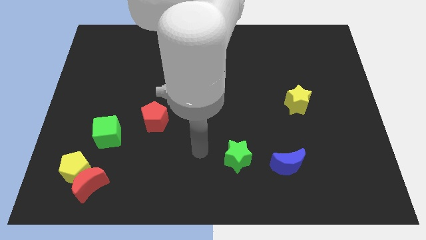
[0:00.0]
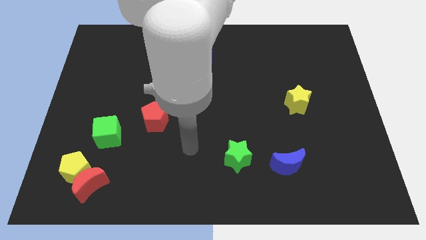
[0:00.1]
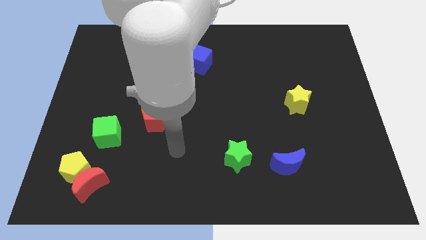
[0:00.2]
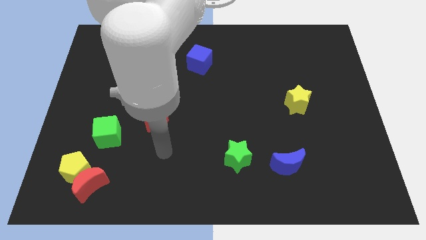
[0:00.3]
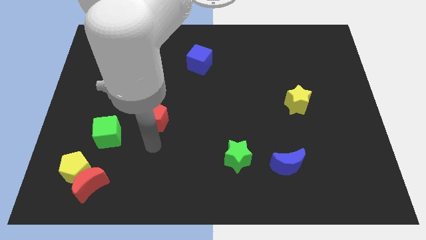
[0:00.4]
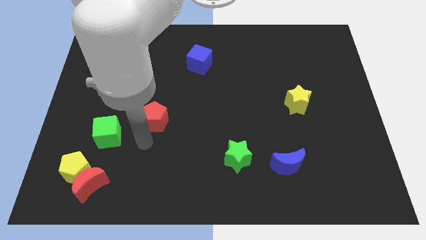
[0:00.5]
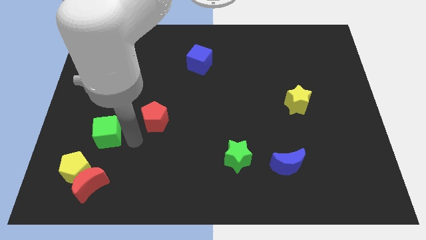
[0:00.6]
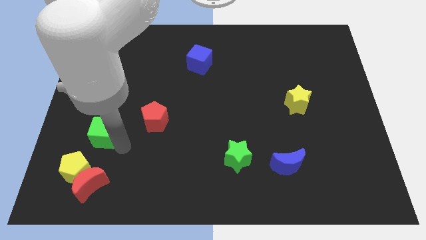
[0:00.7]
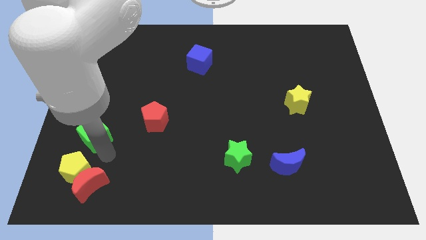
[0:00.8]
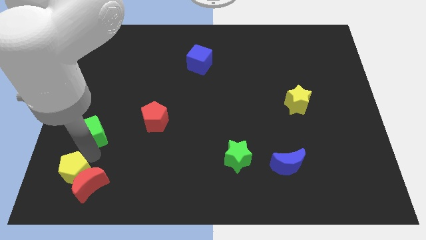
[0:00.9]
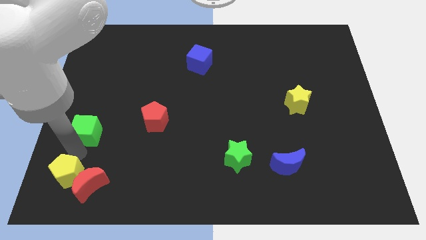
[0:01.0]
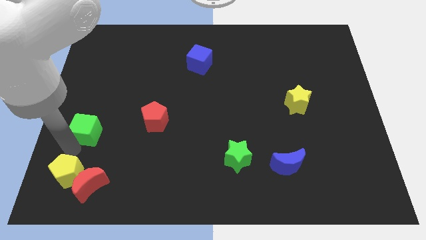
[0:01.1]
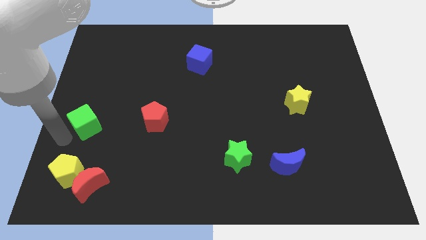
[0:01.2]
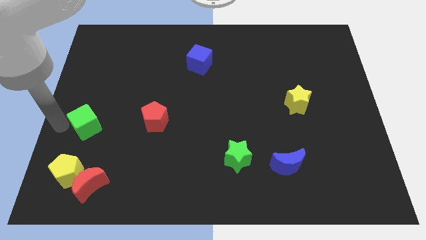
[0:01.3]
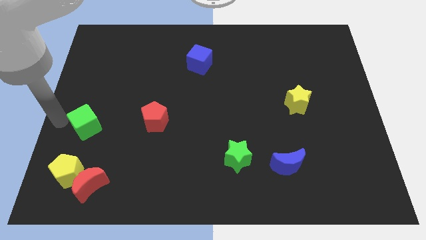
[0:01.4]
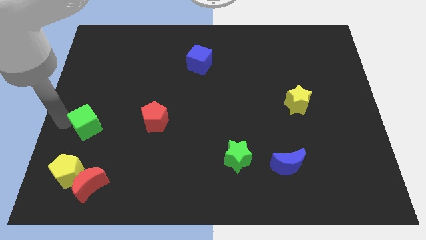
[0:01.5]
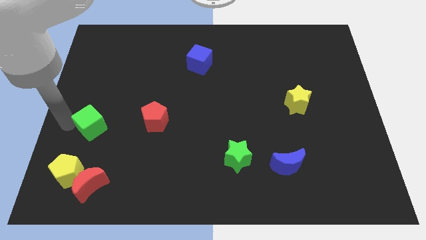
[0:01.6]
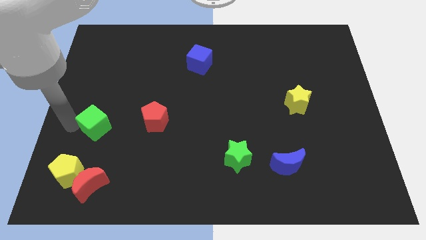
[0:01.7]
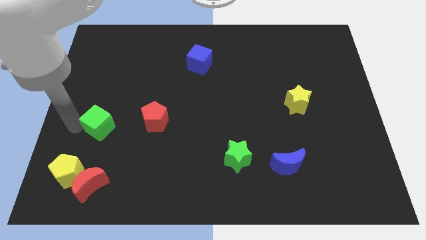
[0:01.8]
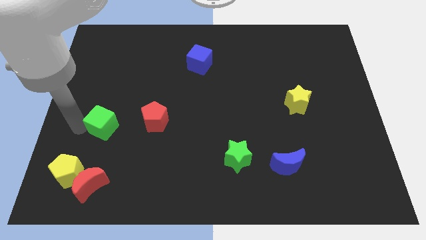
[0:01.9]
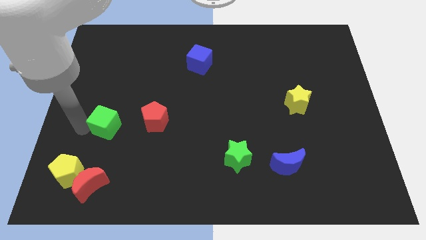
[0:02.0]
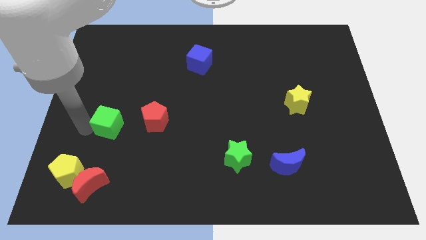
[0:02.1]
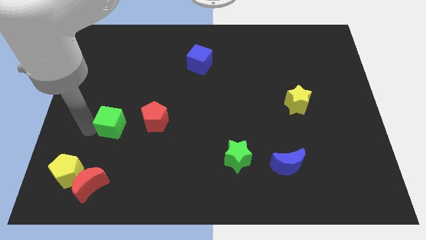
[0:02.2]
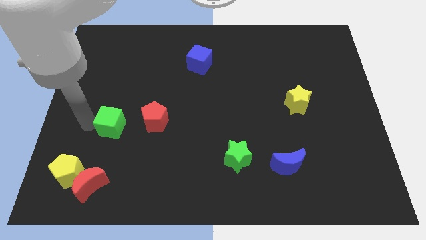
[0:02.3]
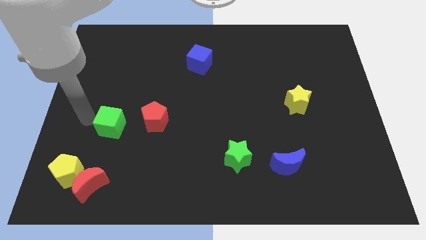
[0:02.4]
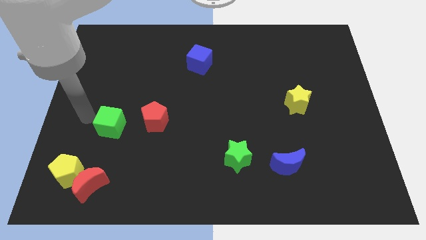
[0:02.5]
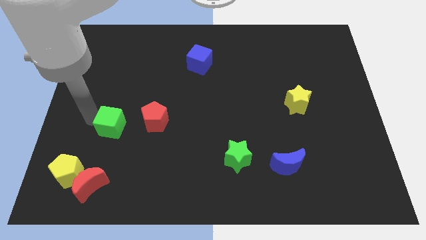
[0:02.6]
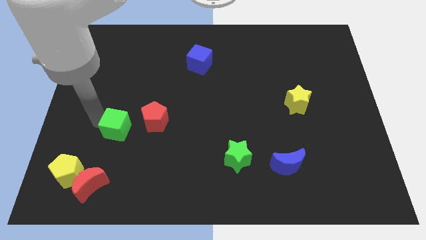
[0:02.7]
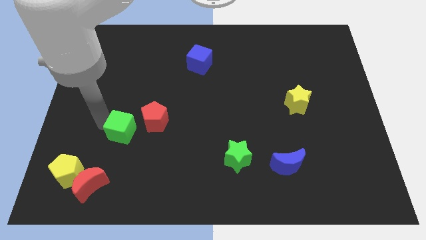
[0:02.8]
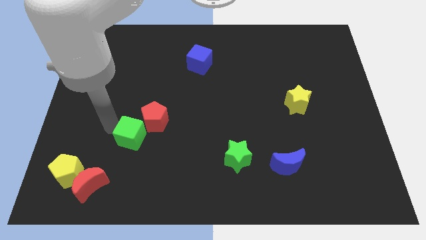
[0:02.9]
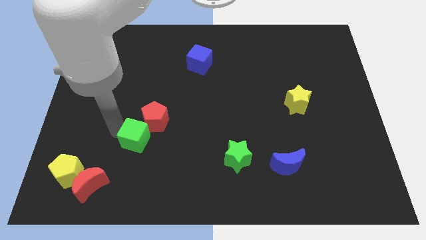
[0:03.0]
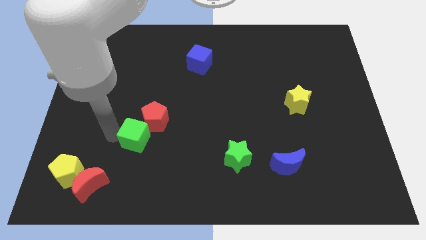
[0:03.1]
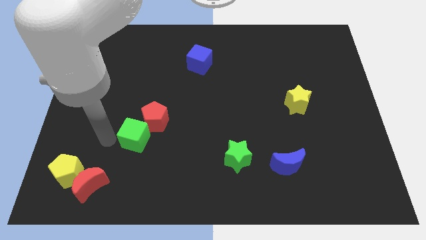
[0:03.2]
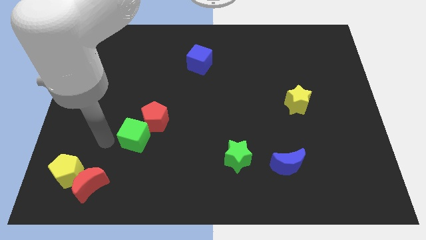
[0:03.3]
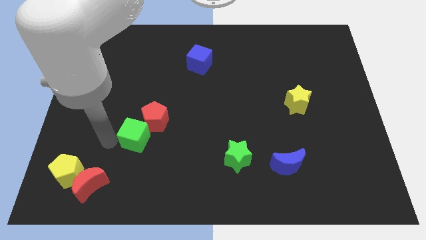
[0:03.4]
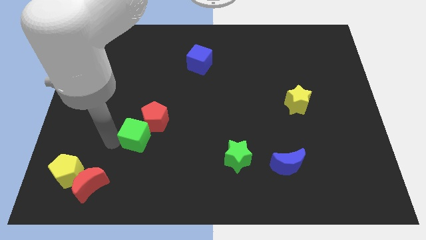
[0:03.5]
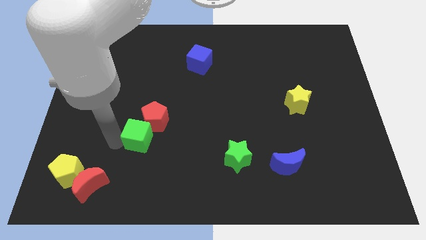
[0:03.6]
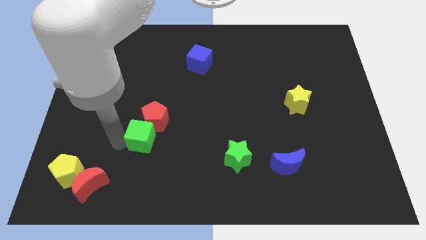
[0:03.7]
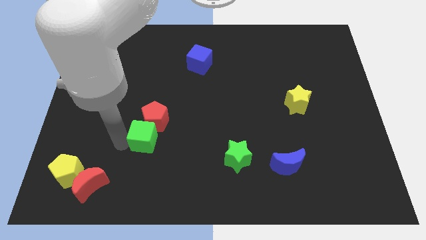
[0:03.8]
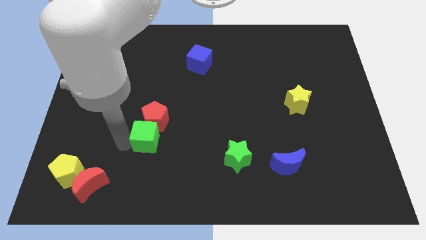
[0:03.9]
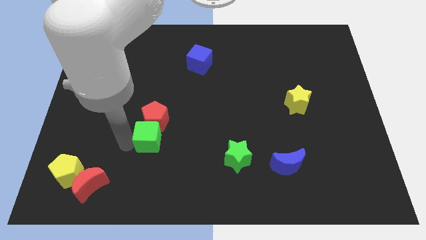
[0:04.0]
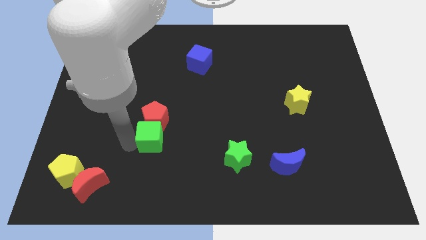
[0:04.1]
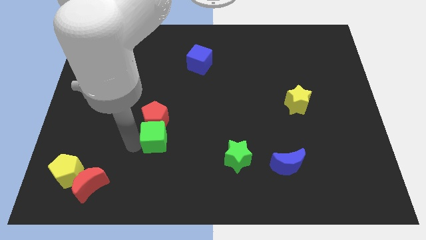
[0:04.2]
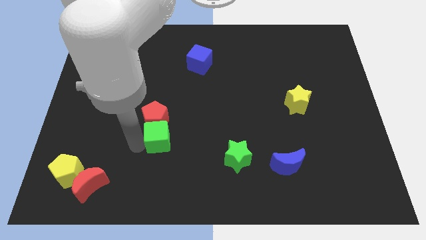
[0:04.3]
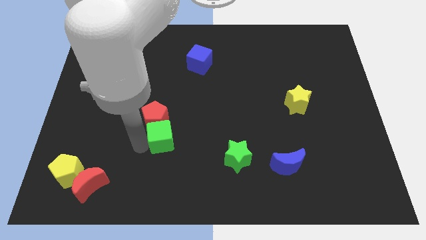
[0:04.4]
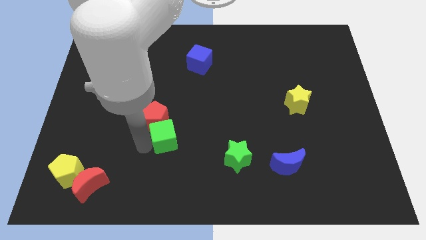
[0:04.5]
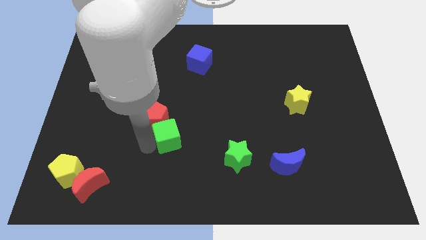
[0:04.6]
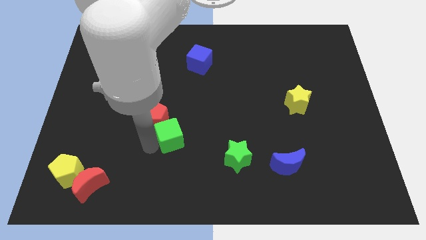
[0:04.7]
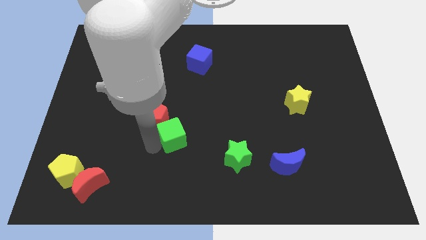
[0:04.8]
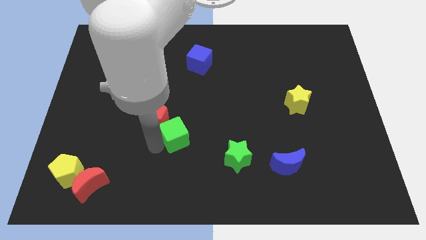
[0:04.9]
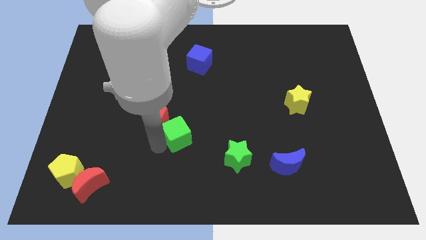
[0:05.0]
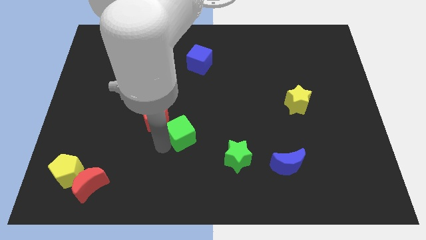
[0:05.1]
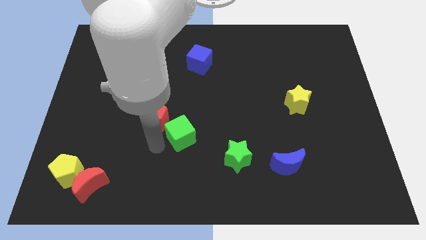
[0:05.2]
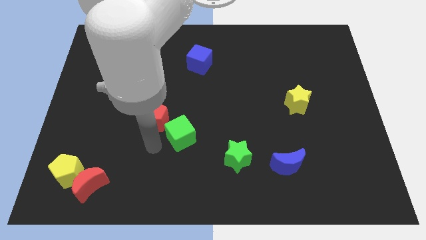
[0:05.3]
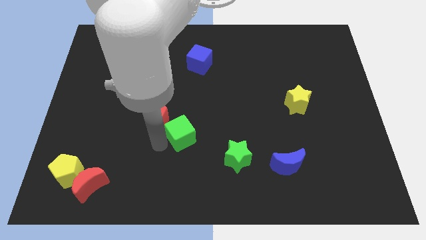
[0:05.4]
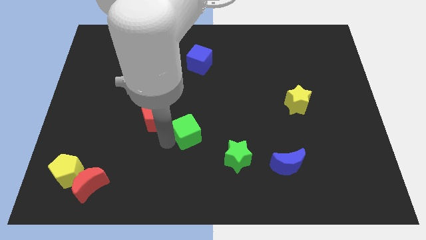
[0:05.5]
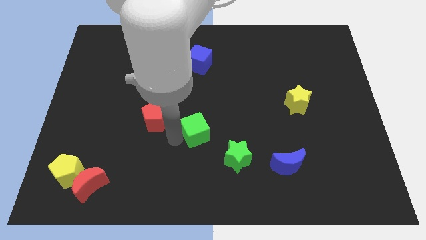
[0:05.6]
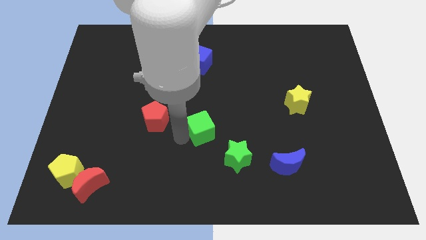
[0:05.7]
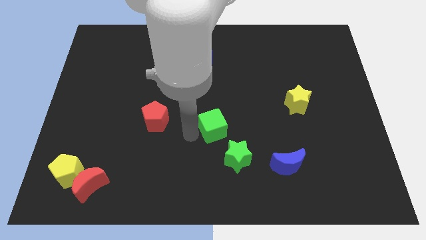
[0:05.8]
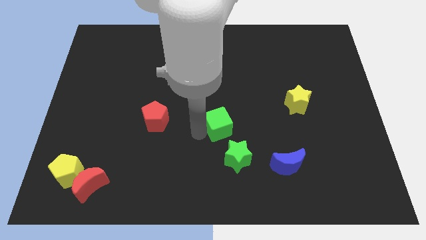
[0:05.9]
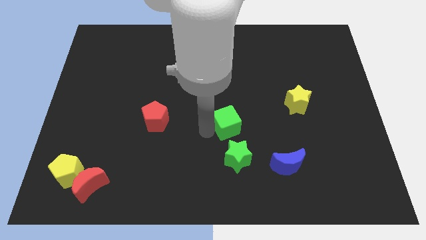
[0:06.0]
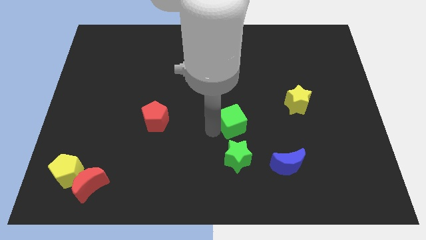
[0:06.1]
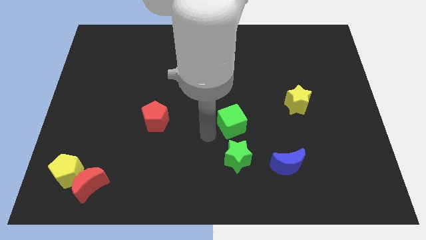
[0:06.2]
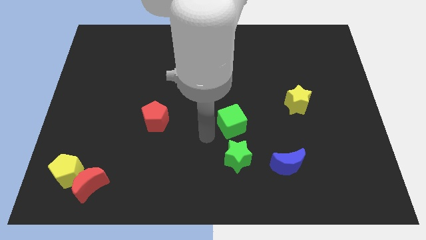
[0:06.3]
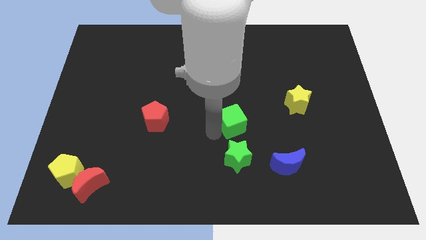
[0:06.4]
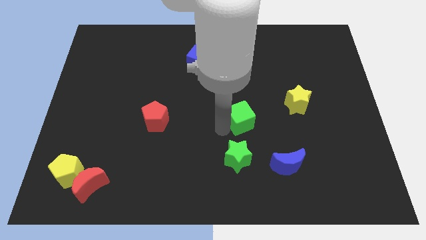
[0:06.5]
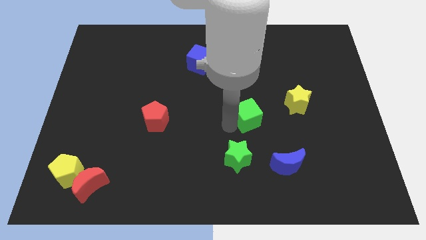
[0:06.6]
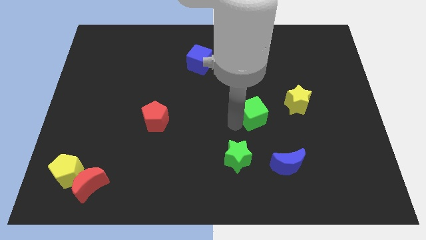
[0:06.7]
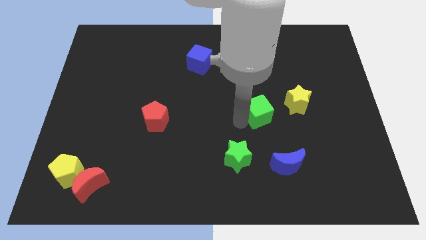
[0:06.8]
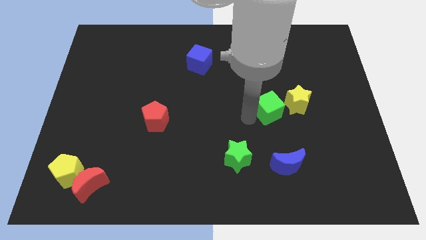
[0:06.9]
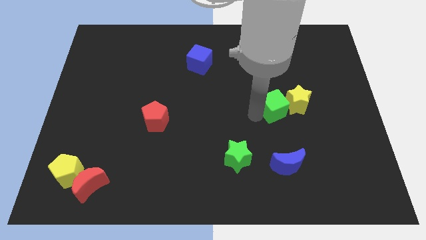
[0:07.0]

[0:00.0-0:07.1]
put the green cube next to the yellow star
